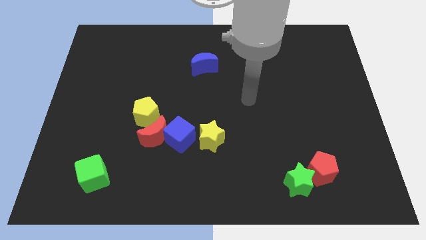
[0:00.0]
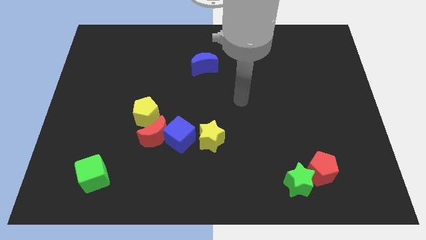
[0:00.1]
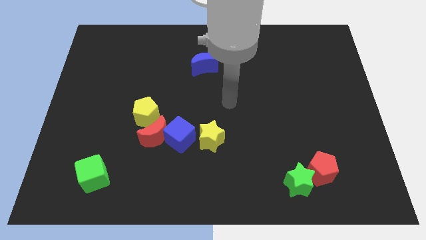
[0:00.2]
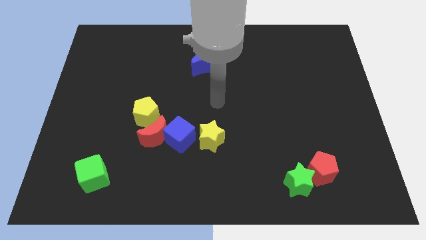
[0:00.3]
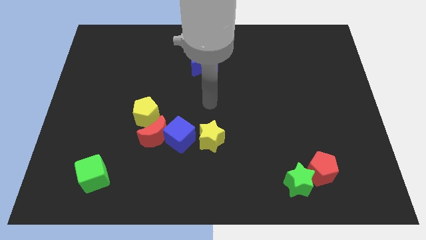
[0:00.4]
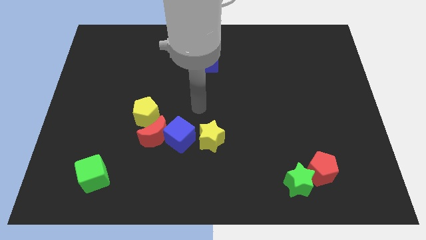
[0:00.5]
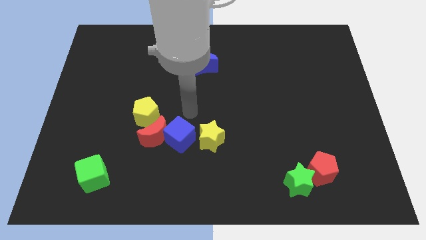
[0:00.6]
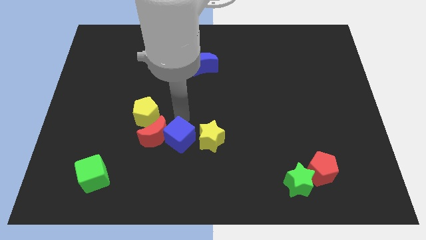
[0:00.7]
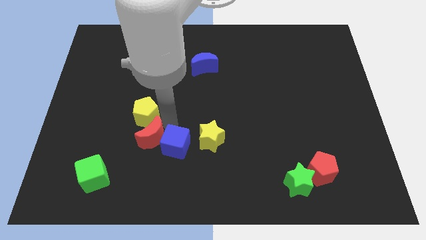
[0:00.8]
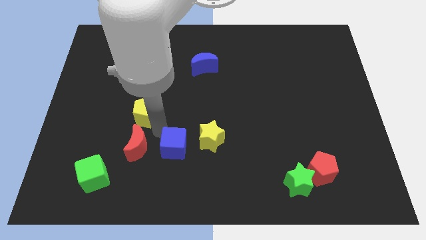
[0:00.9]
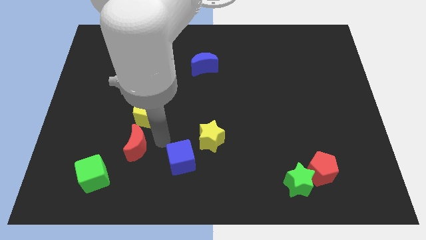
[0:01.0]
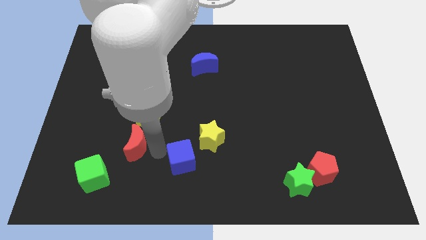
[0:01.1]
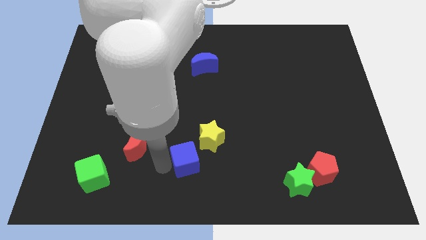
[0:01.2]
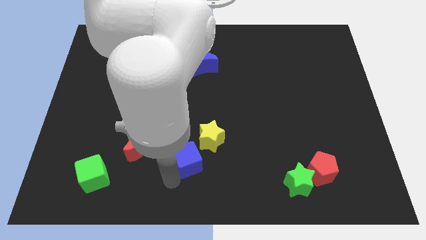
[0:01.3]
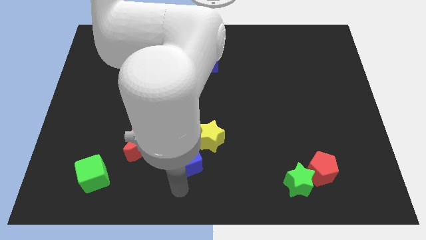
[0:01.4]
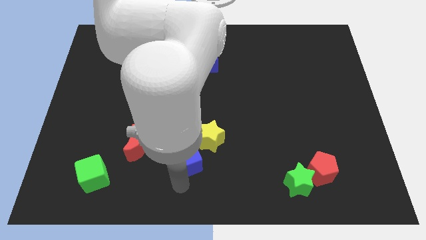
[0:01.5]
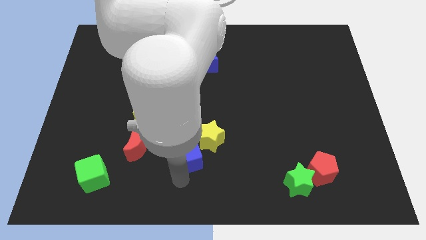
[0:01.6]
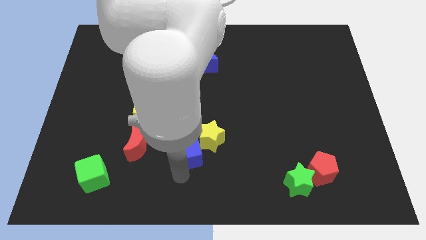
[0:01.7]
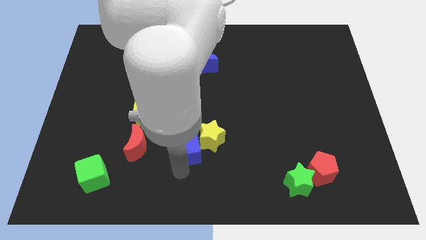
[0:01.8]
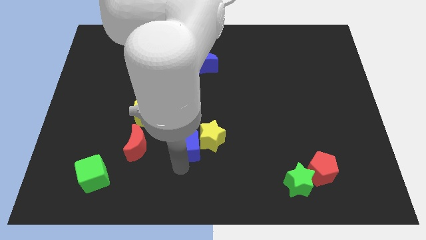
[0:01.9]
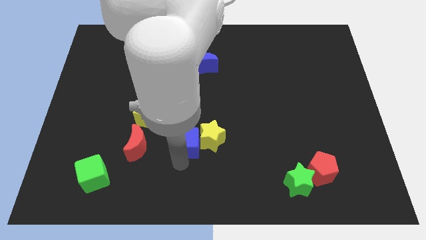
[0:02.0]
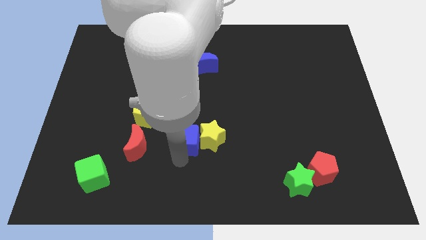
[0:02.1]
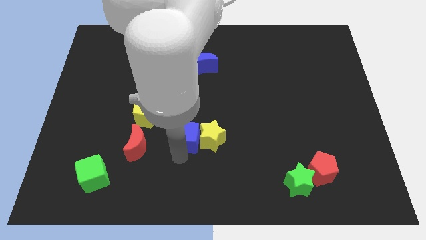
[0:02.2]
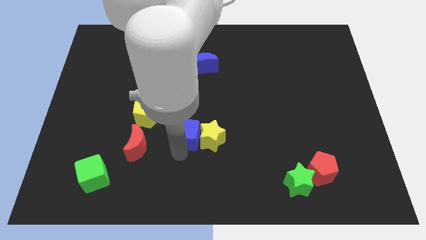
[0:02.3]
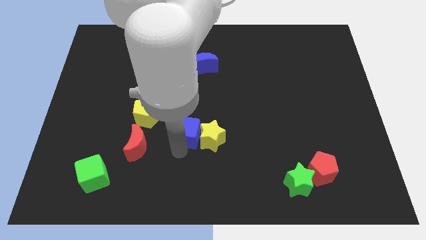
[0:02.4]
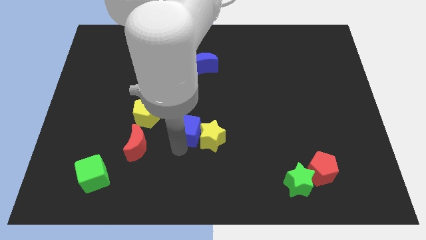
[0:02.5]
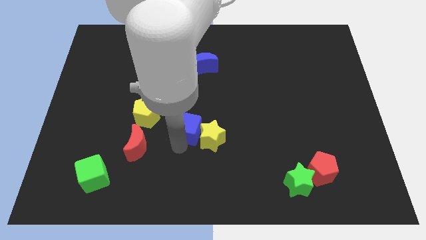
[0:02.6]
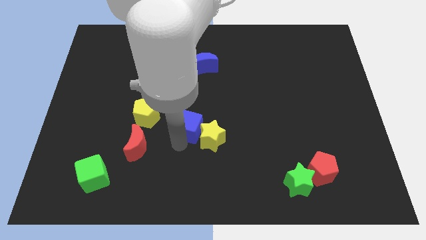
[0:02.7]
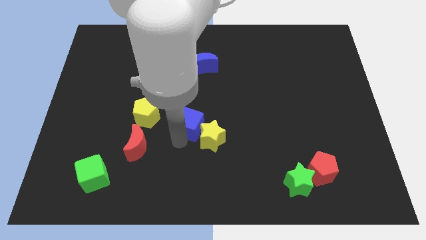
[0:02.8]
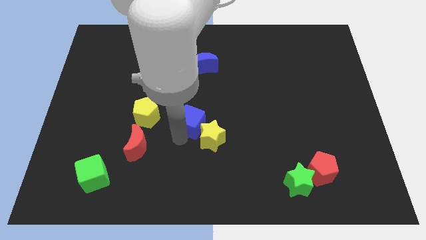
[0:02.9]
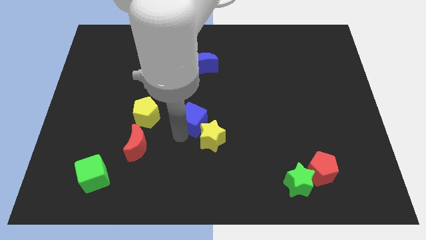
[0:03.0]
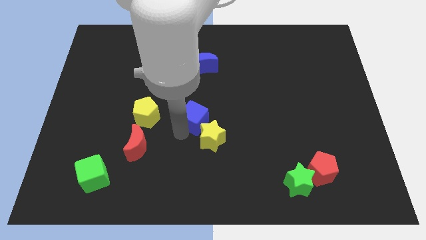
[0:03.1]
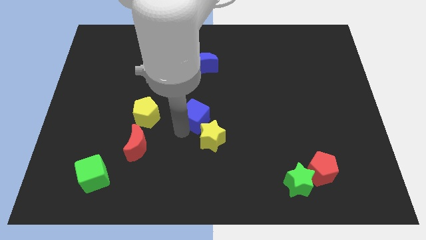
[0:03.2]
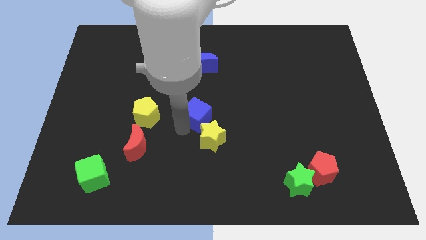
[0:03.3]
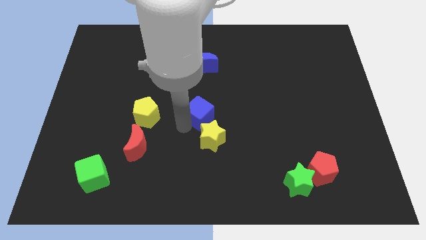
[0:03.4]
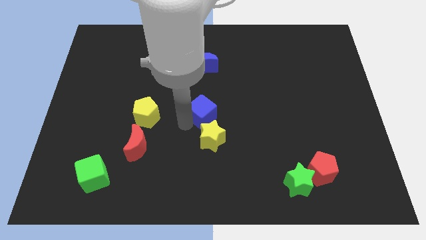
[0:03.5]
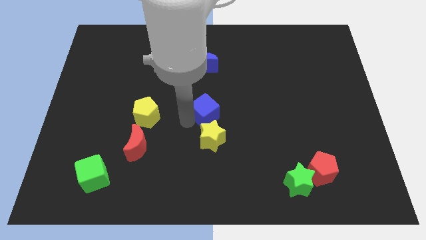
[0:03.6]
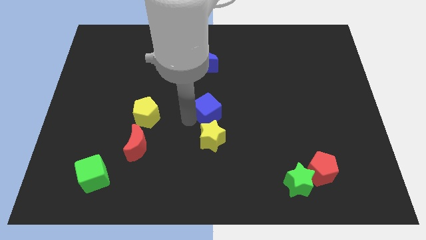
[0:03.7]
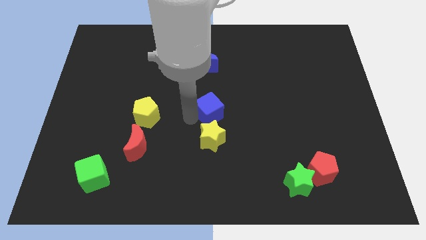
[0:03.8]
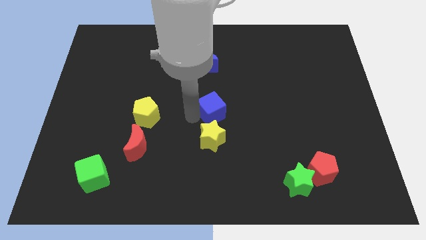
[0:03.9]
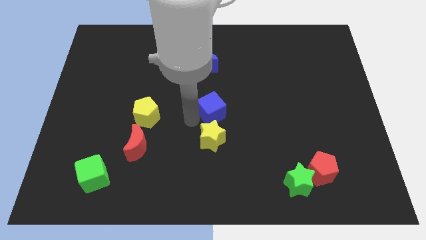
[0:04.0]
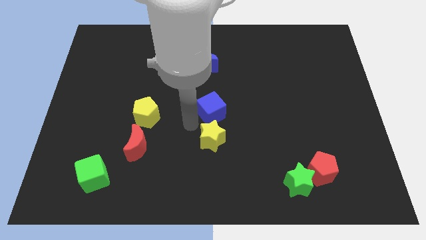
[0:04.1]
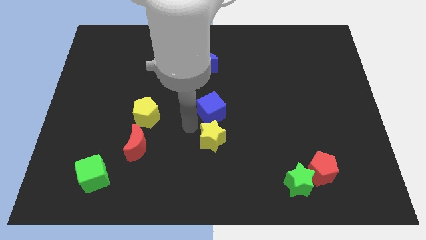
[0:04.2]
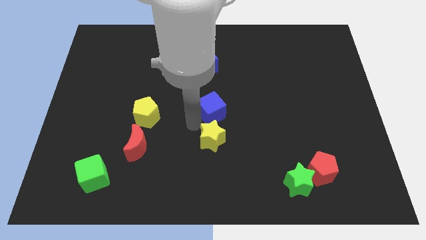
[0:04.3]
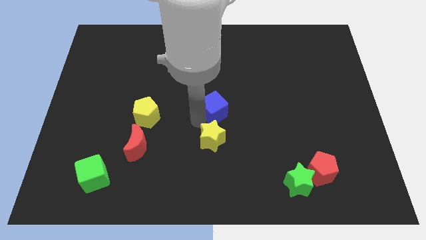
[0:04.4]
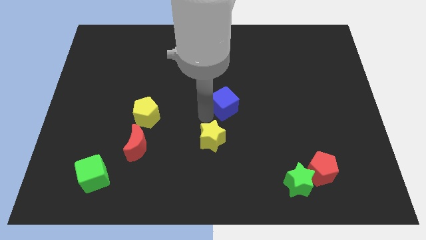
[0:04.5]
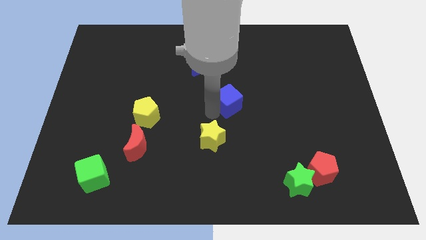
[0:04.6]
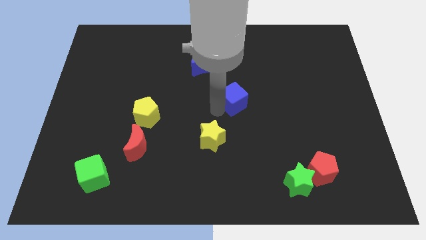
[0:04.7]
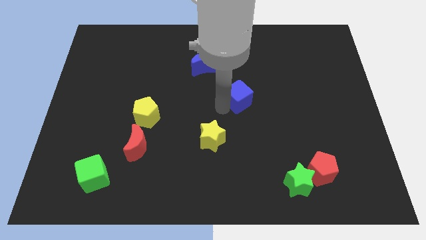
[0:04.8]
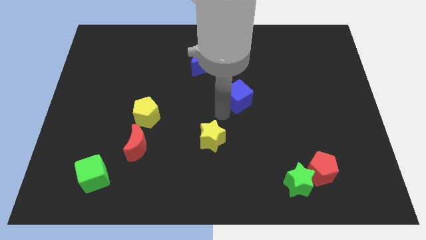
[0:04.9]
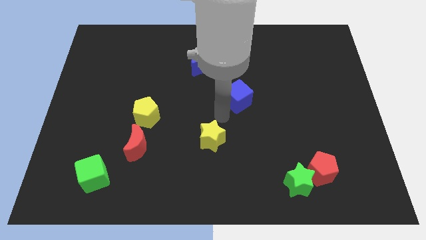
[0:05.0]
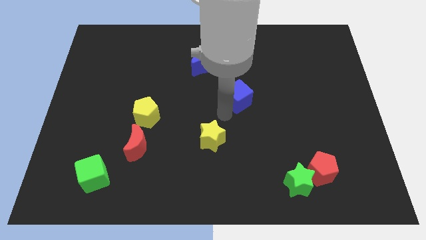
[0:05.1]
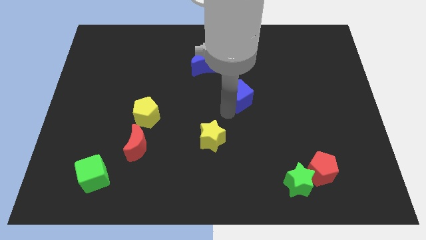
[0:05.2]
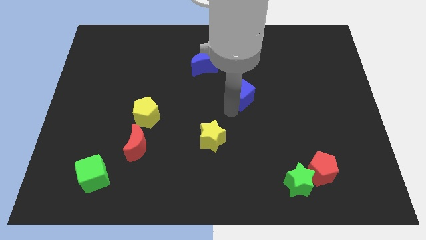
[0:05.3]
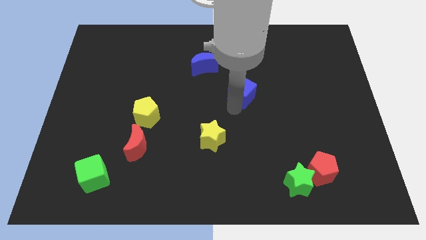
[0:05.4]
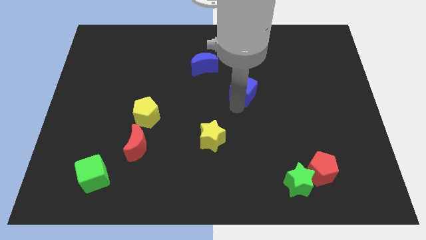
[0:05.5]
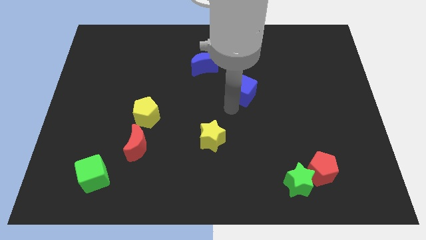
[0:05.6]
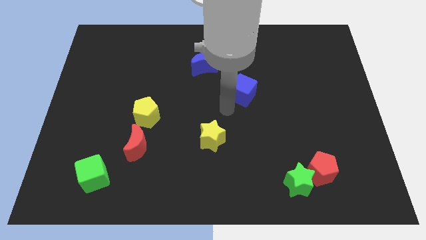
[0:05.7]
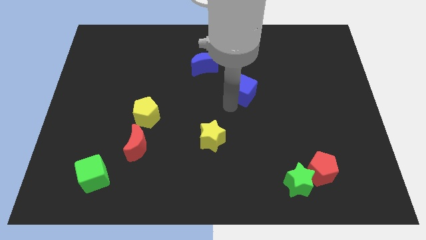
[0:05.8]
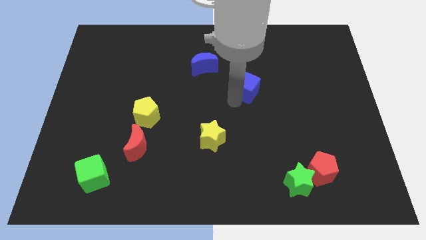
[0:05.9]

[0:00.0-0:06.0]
move the blue cube up and to the right diagonally

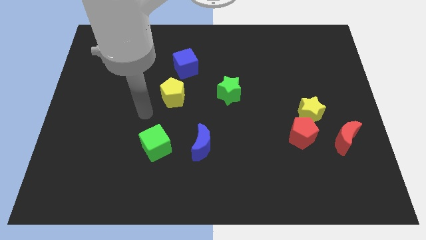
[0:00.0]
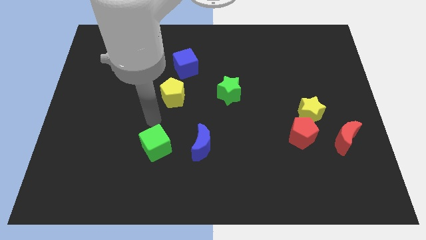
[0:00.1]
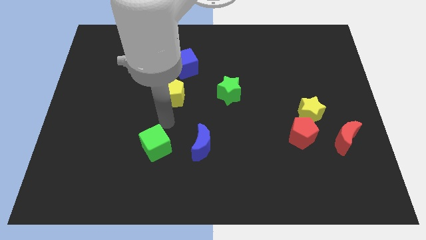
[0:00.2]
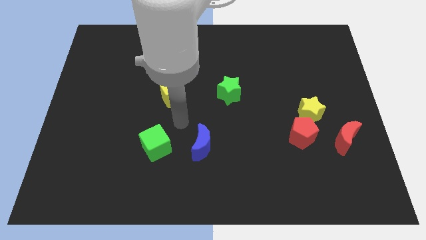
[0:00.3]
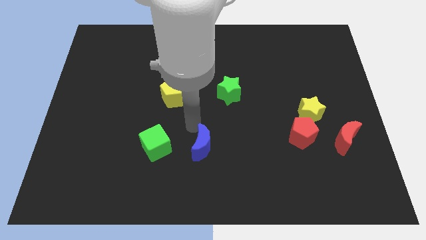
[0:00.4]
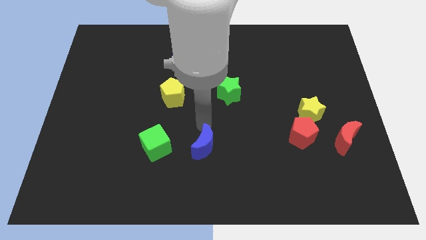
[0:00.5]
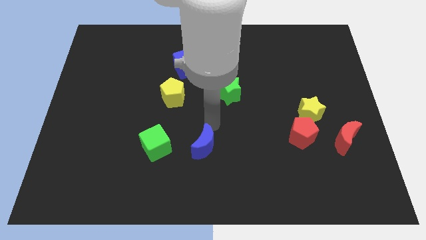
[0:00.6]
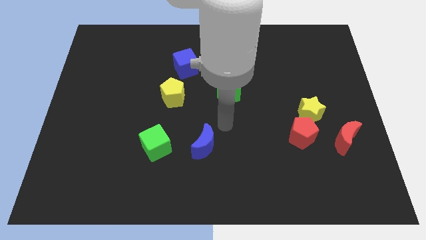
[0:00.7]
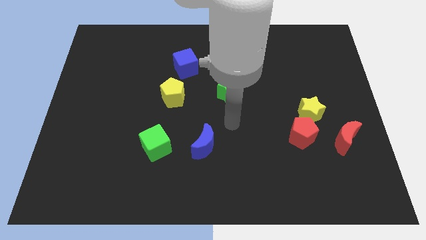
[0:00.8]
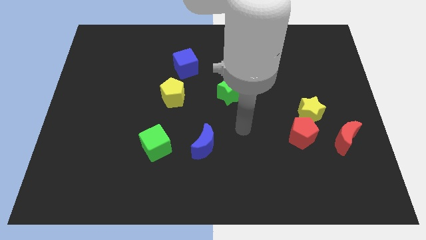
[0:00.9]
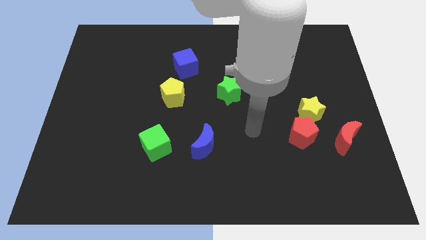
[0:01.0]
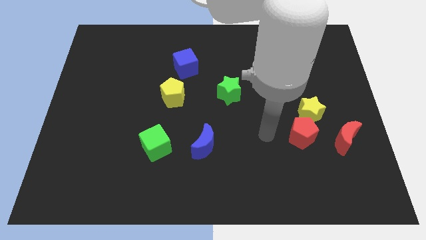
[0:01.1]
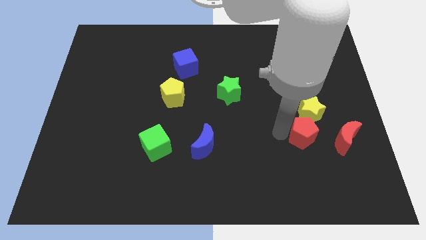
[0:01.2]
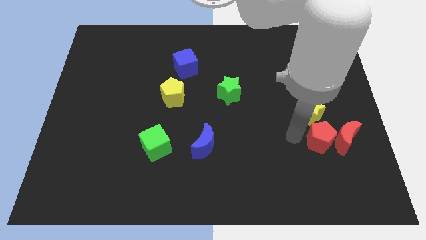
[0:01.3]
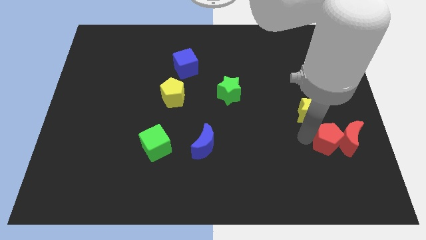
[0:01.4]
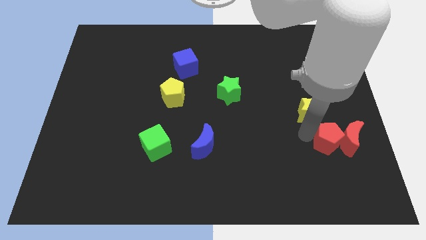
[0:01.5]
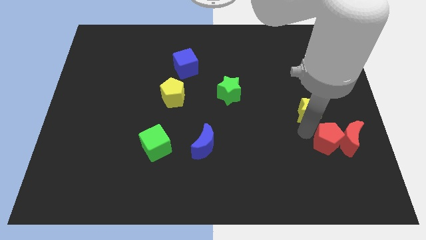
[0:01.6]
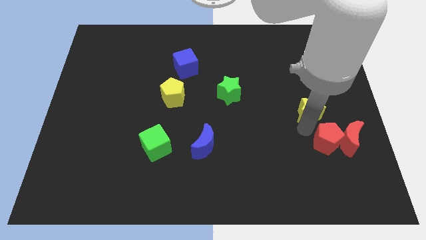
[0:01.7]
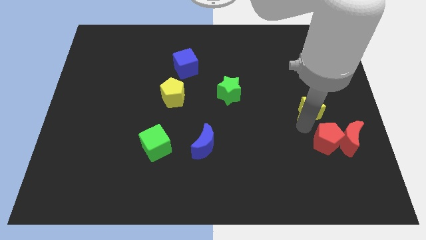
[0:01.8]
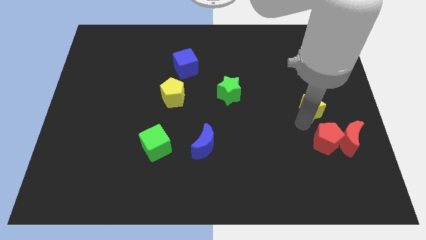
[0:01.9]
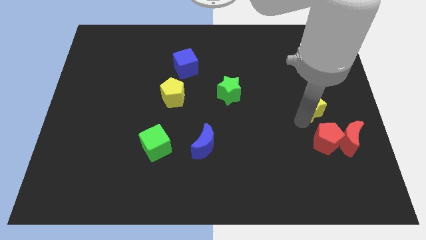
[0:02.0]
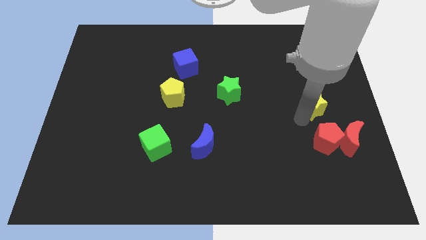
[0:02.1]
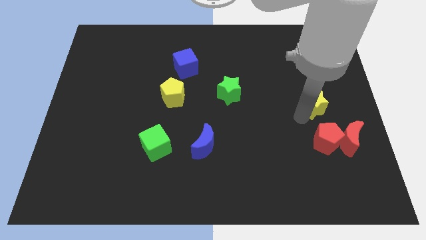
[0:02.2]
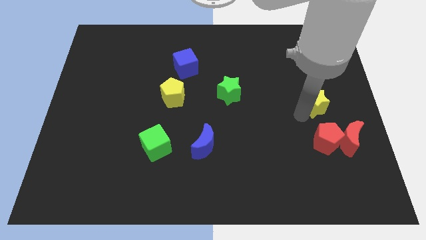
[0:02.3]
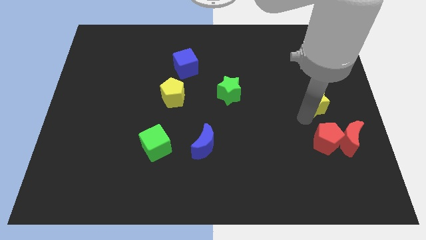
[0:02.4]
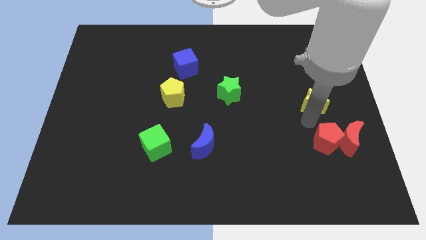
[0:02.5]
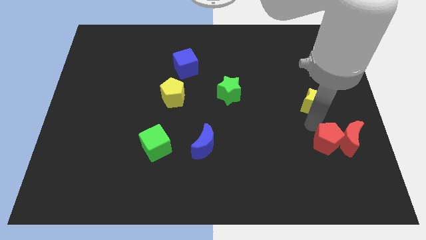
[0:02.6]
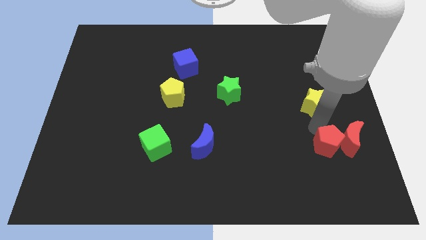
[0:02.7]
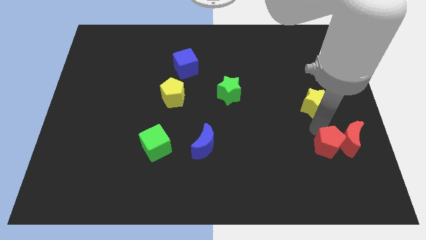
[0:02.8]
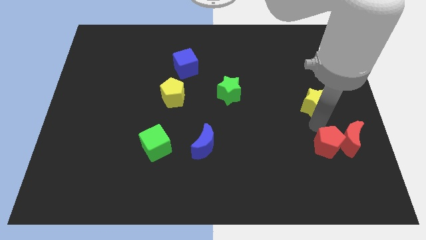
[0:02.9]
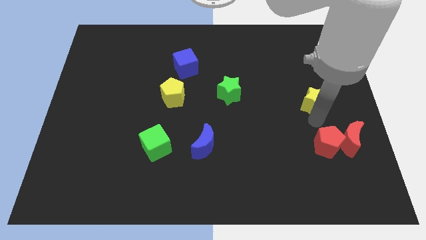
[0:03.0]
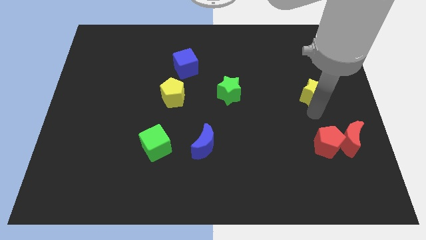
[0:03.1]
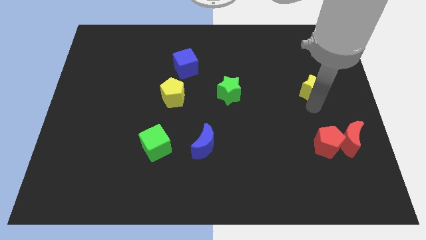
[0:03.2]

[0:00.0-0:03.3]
slightly move the yellow star up
